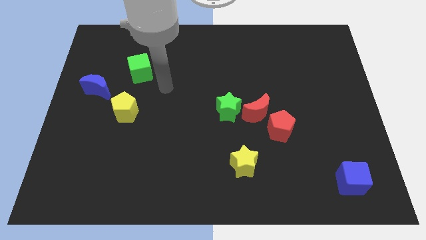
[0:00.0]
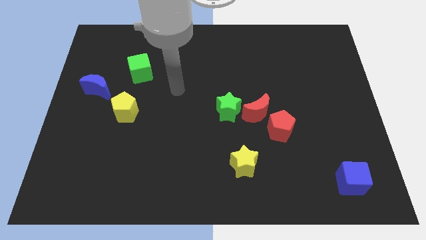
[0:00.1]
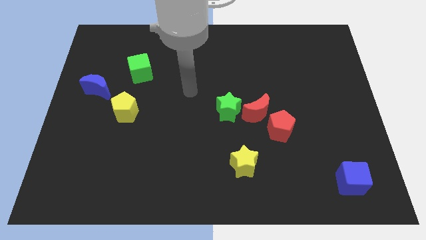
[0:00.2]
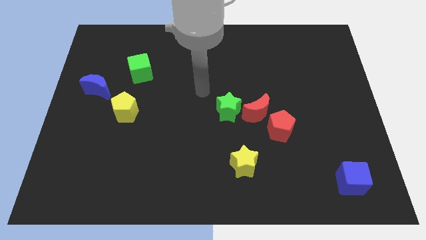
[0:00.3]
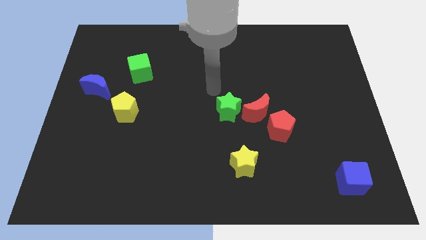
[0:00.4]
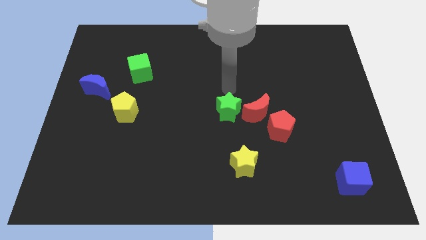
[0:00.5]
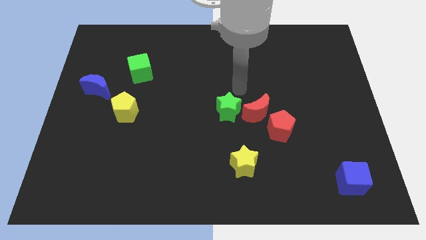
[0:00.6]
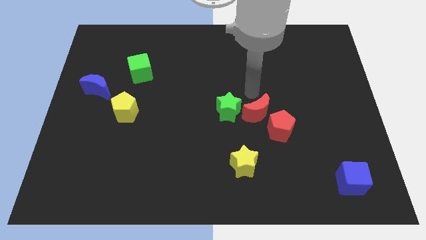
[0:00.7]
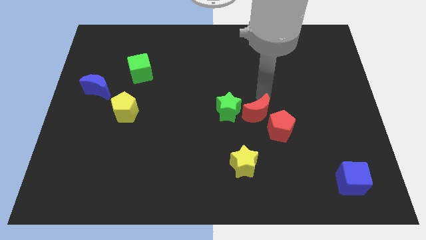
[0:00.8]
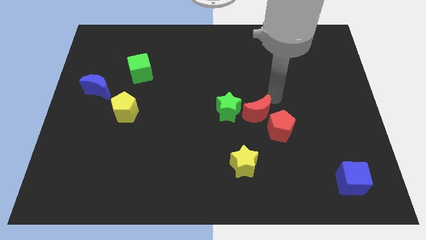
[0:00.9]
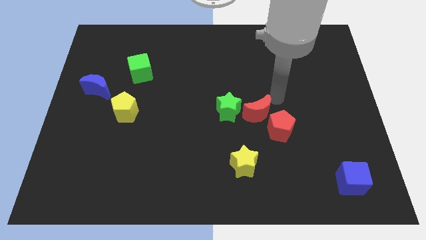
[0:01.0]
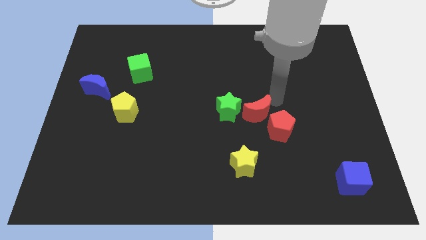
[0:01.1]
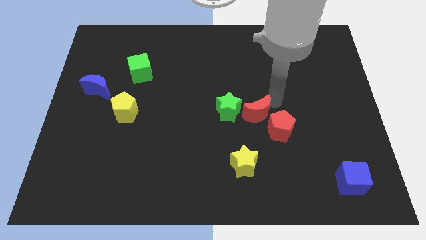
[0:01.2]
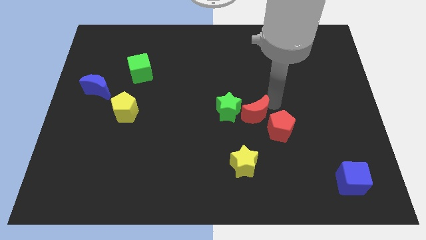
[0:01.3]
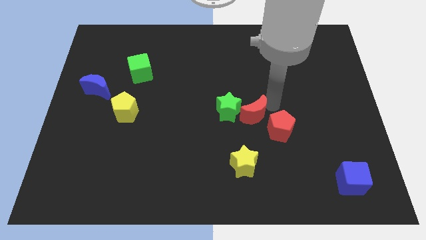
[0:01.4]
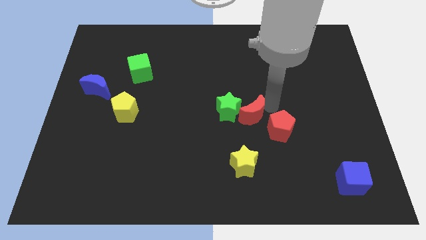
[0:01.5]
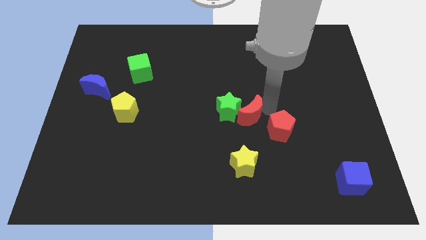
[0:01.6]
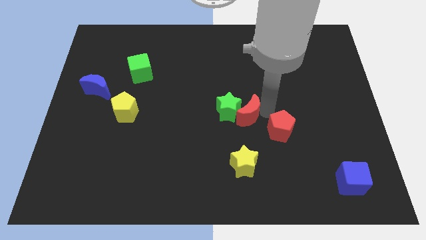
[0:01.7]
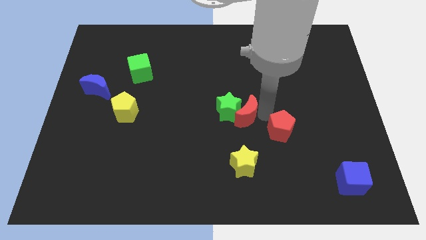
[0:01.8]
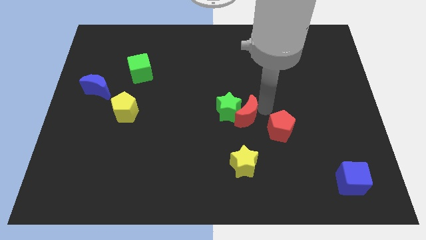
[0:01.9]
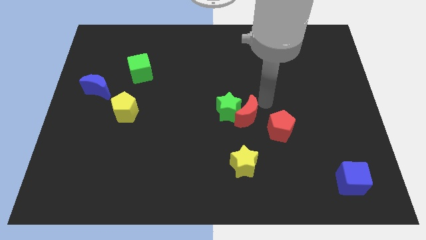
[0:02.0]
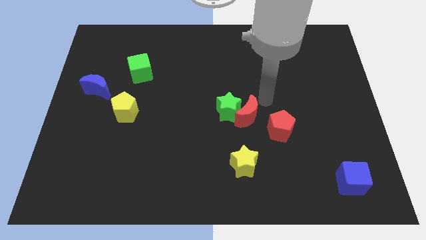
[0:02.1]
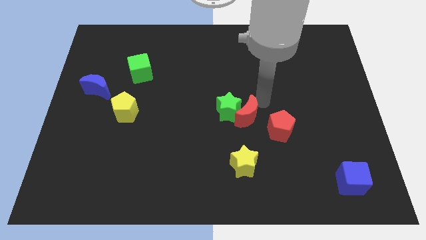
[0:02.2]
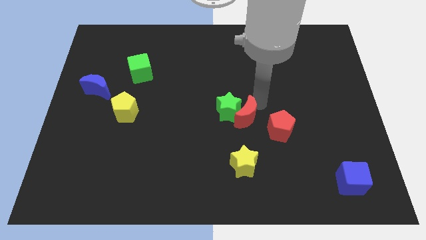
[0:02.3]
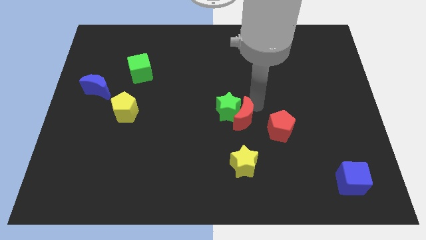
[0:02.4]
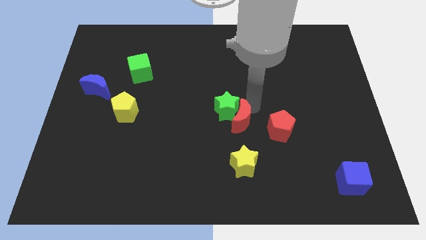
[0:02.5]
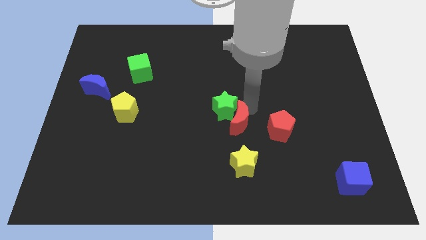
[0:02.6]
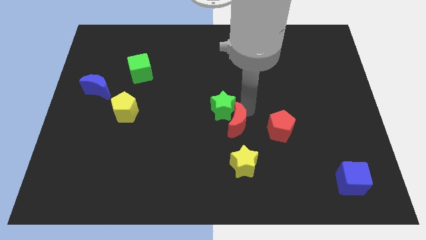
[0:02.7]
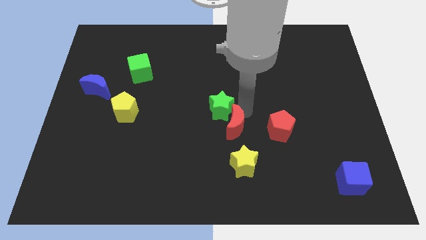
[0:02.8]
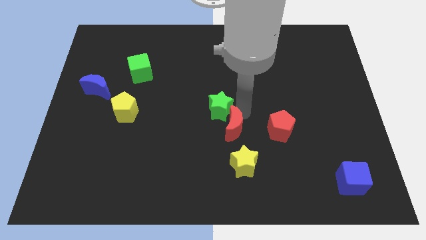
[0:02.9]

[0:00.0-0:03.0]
slide the red moon a little down and left diagonally

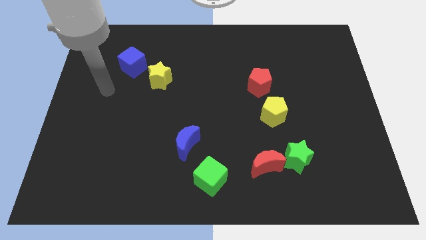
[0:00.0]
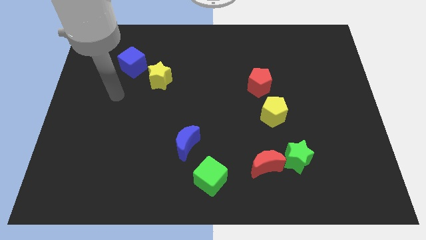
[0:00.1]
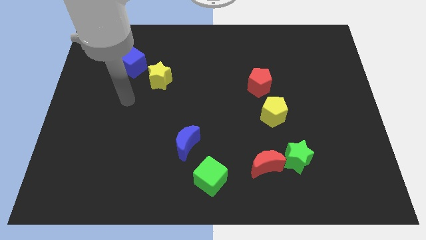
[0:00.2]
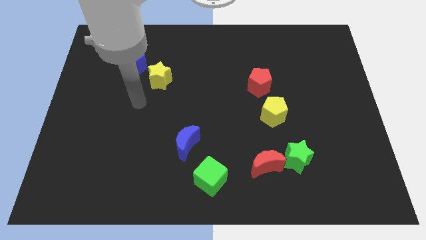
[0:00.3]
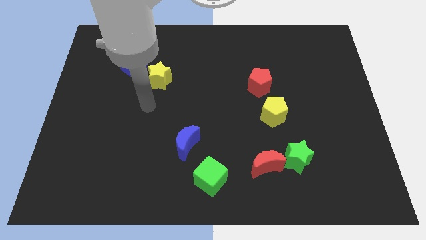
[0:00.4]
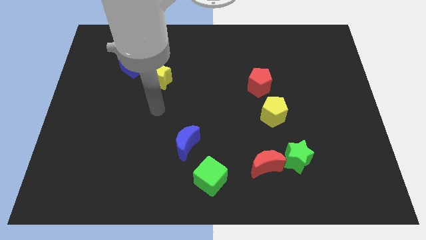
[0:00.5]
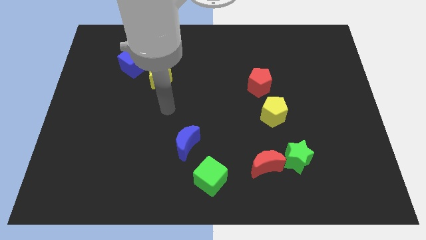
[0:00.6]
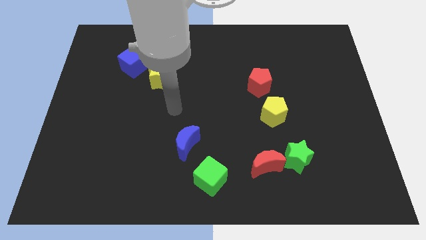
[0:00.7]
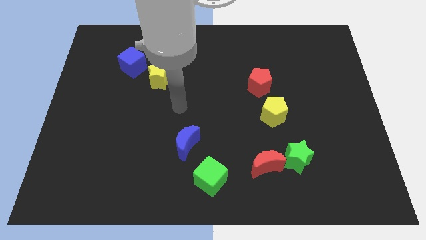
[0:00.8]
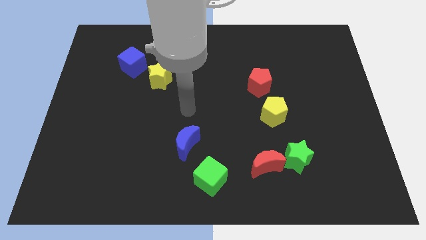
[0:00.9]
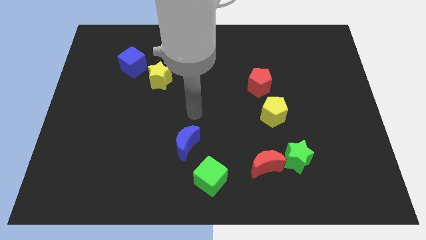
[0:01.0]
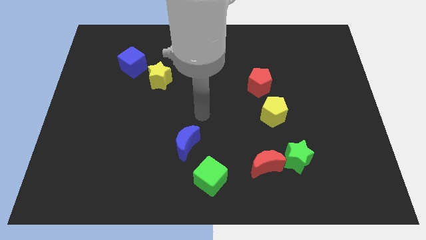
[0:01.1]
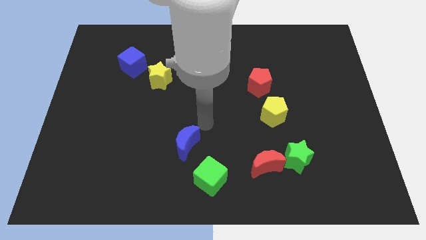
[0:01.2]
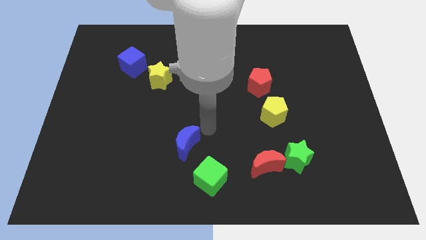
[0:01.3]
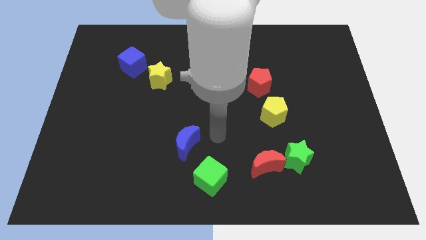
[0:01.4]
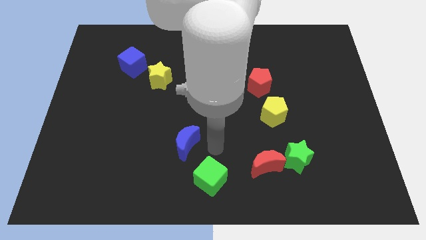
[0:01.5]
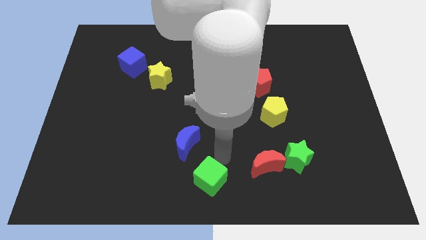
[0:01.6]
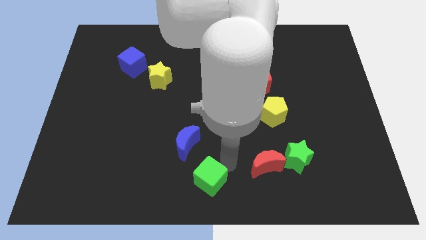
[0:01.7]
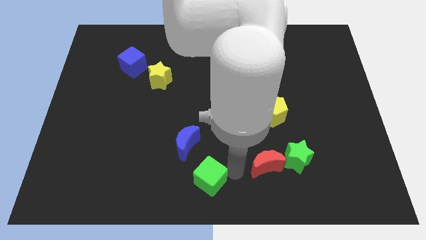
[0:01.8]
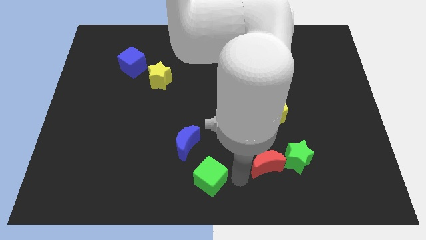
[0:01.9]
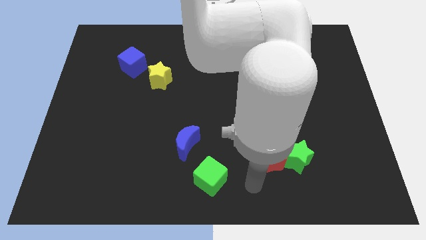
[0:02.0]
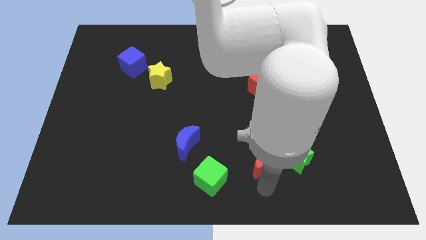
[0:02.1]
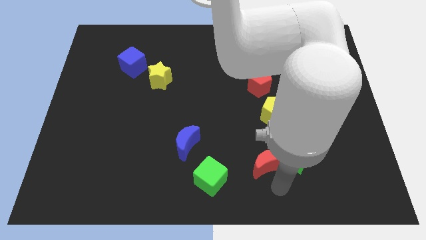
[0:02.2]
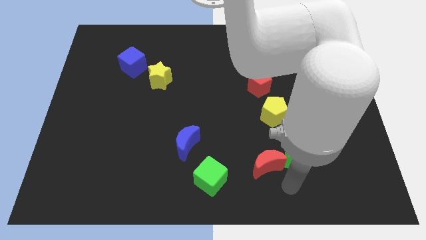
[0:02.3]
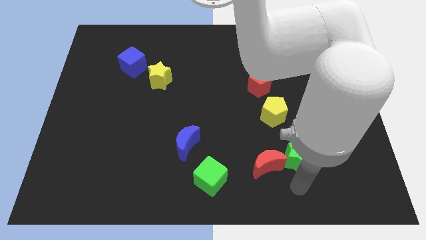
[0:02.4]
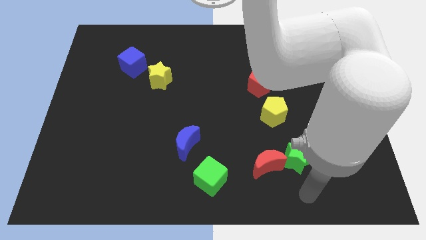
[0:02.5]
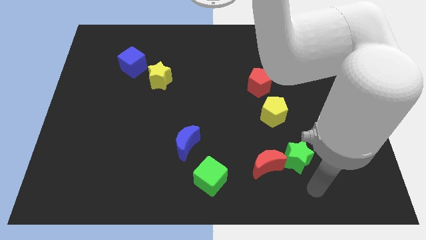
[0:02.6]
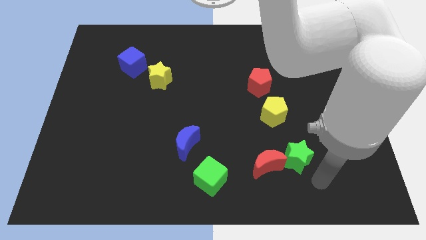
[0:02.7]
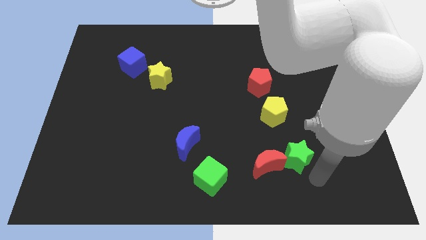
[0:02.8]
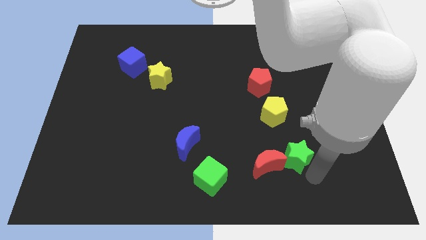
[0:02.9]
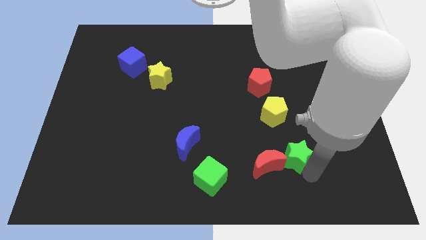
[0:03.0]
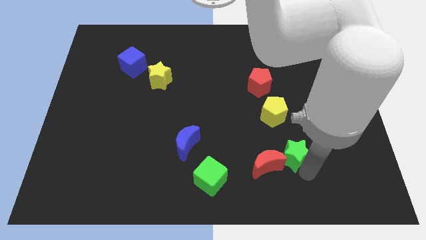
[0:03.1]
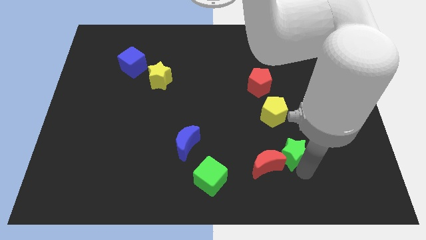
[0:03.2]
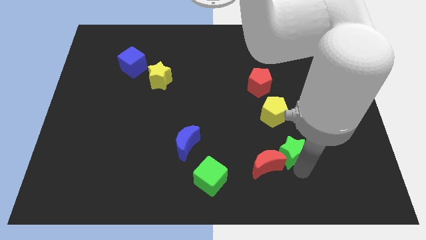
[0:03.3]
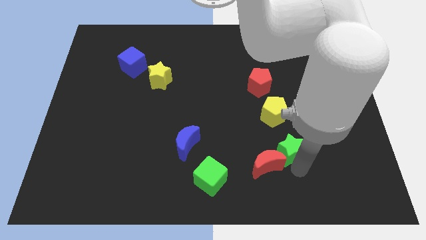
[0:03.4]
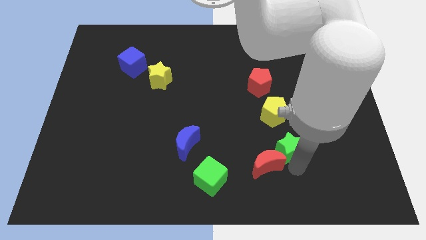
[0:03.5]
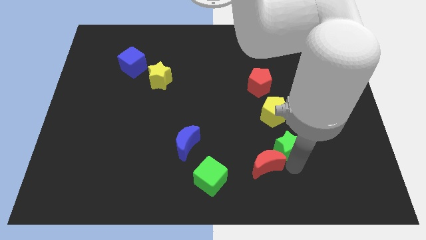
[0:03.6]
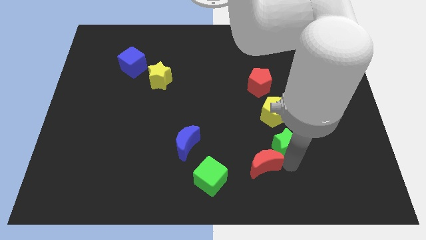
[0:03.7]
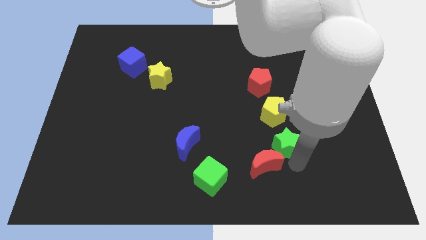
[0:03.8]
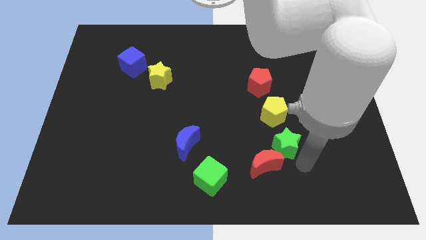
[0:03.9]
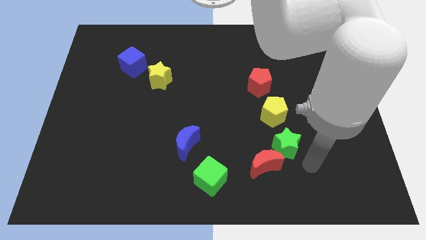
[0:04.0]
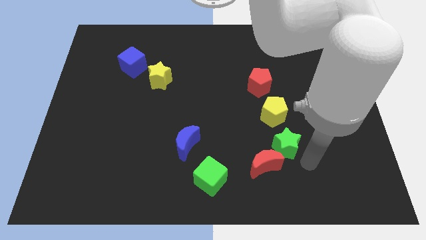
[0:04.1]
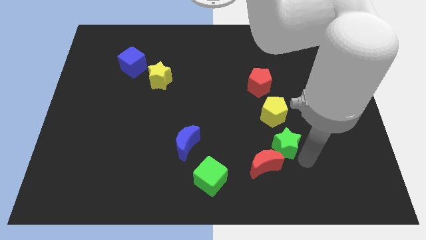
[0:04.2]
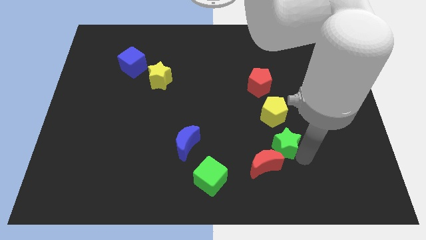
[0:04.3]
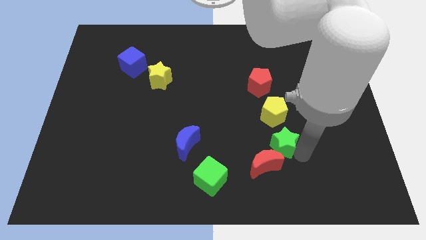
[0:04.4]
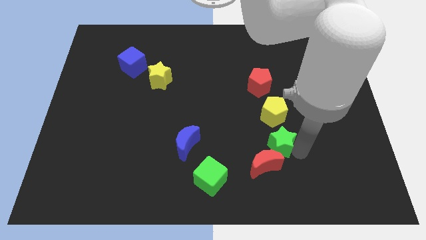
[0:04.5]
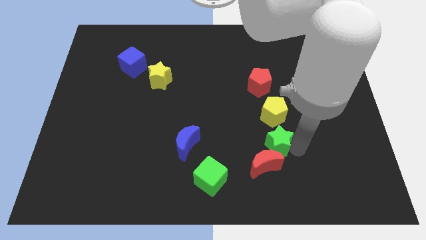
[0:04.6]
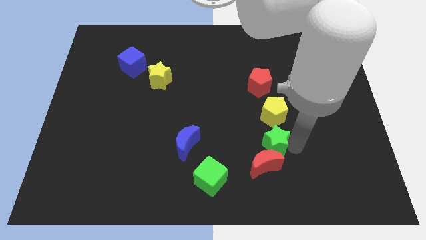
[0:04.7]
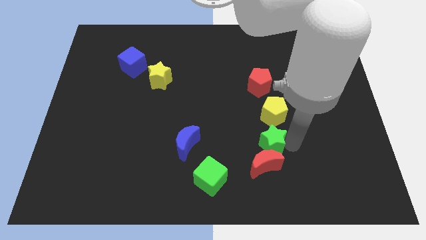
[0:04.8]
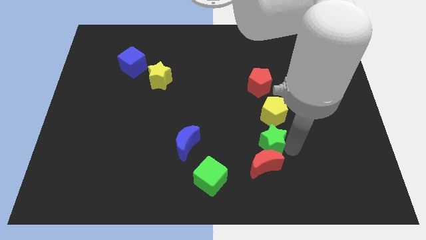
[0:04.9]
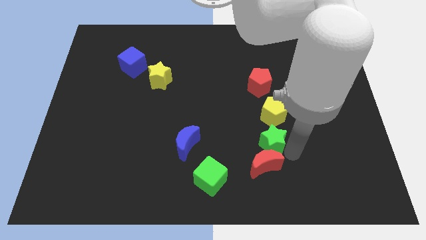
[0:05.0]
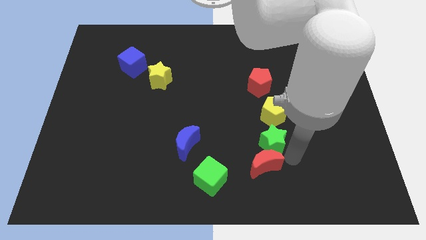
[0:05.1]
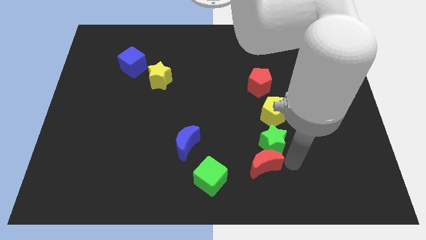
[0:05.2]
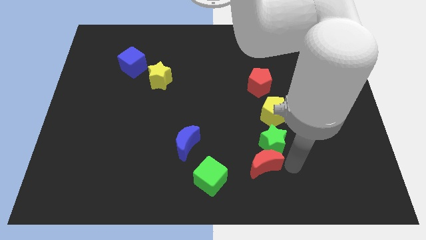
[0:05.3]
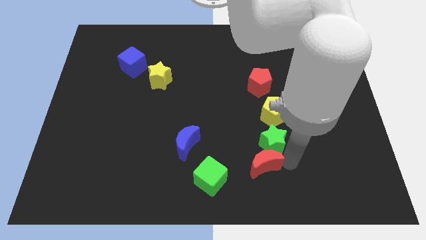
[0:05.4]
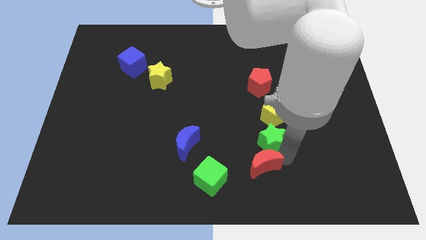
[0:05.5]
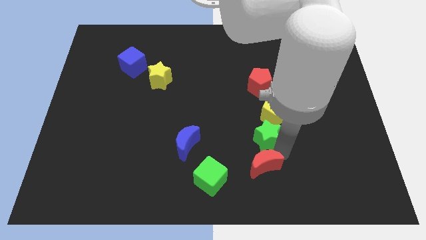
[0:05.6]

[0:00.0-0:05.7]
push the green star diagonally upwards and left a little bit
